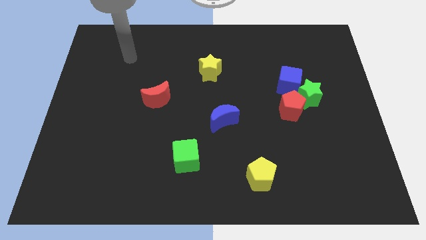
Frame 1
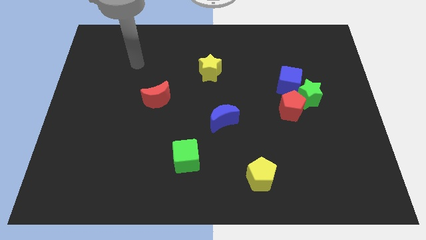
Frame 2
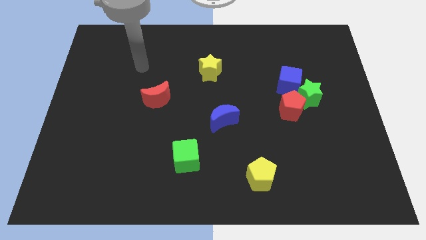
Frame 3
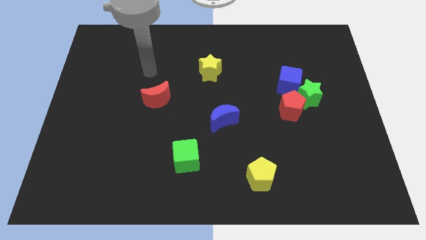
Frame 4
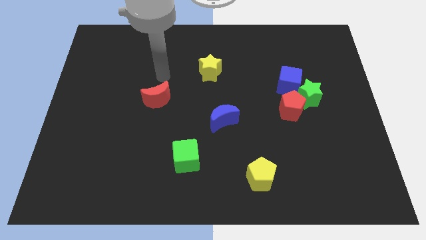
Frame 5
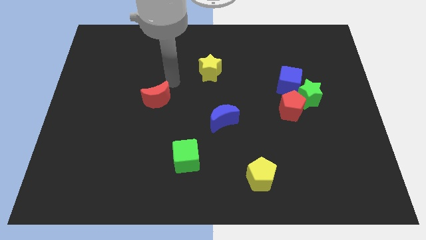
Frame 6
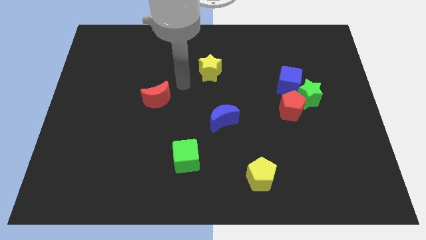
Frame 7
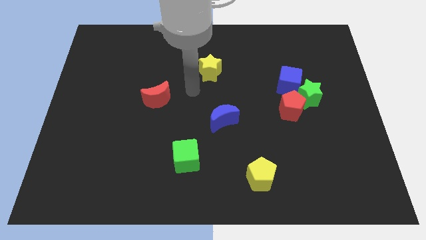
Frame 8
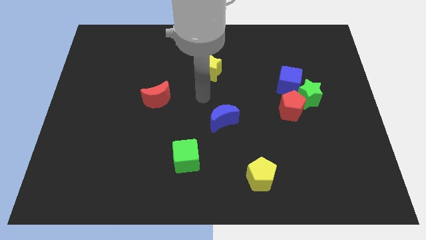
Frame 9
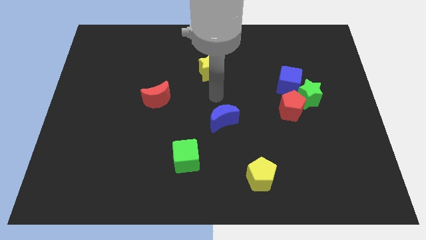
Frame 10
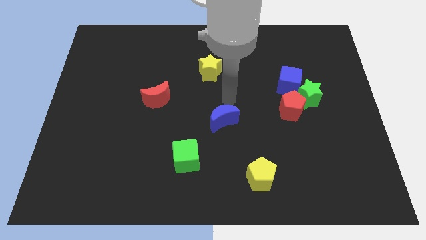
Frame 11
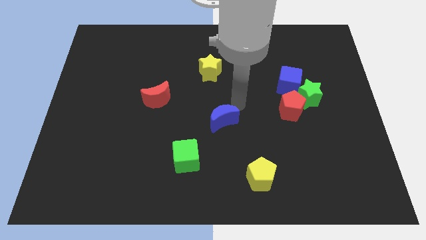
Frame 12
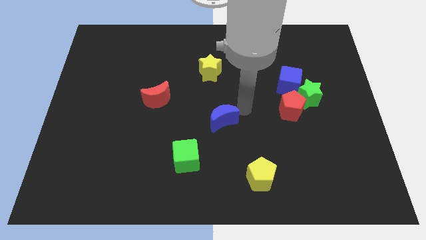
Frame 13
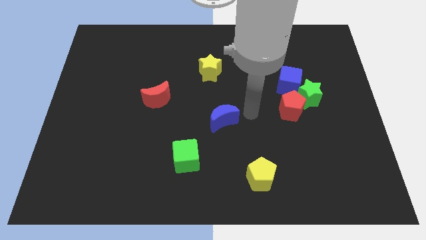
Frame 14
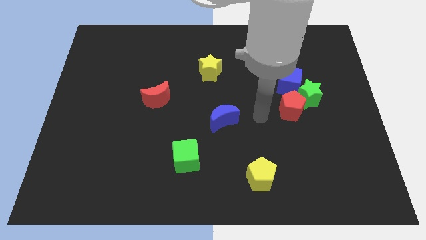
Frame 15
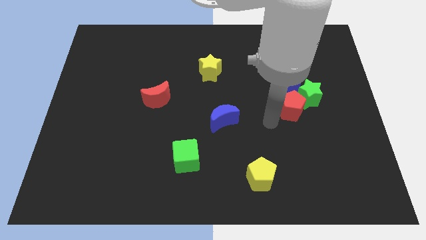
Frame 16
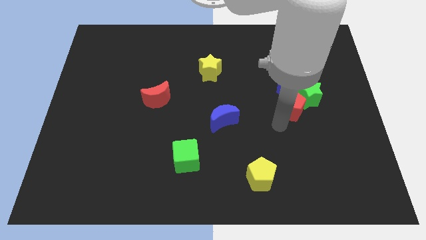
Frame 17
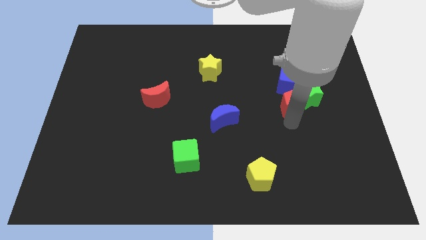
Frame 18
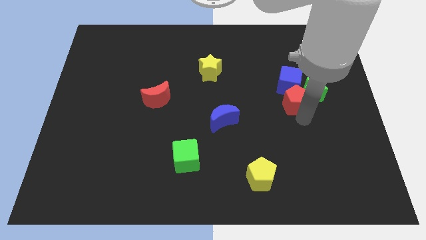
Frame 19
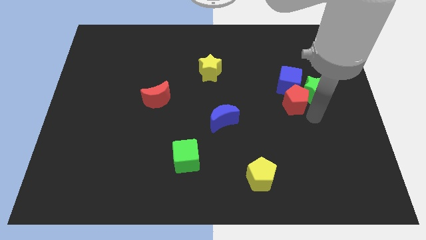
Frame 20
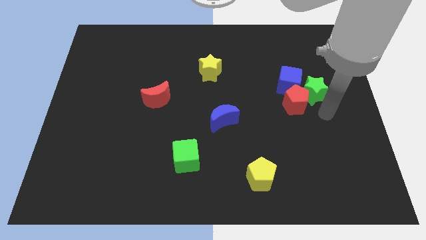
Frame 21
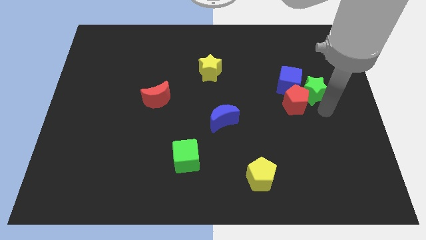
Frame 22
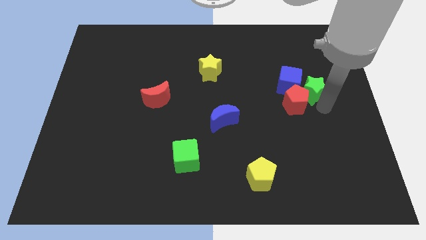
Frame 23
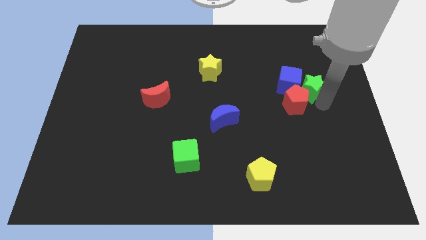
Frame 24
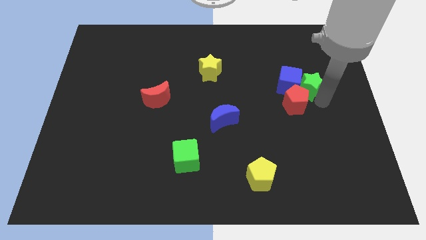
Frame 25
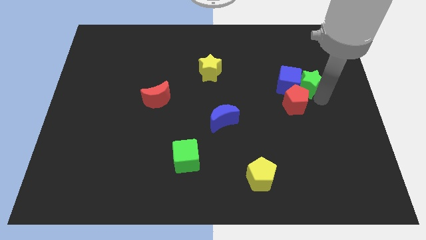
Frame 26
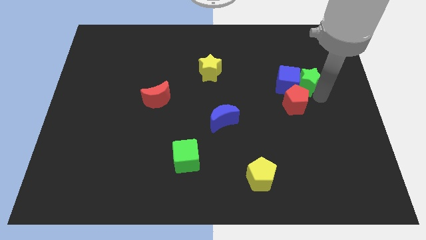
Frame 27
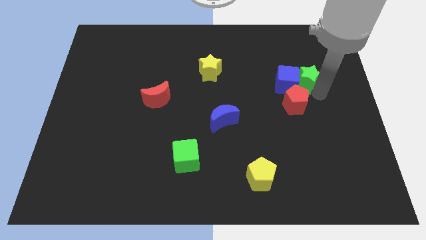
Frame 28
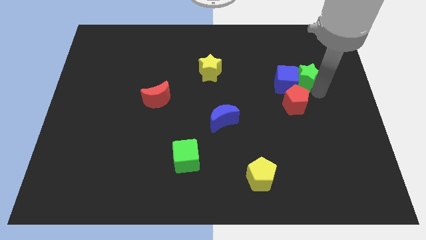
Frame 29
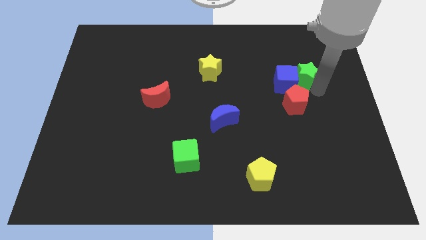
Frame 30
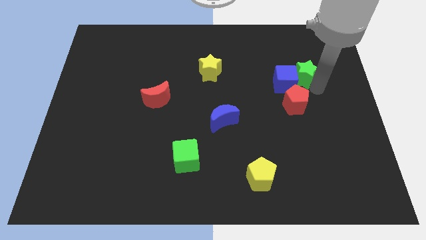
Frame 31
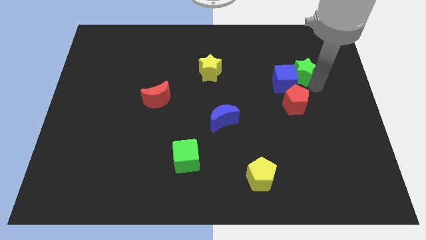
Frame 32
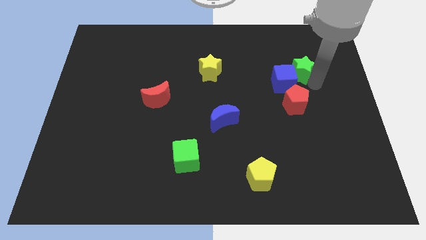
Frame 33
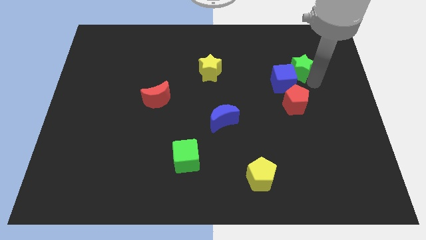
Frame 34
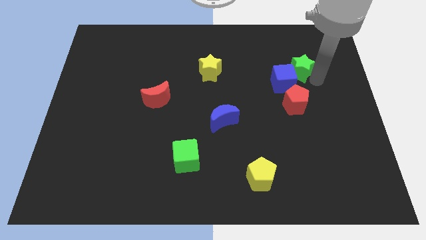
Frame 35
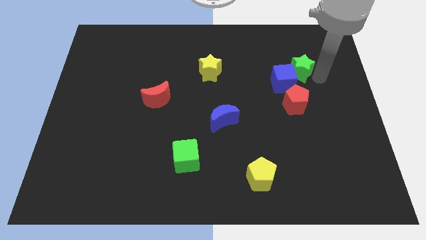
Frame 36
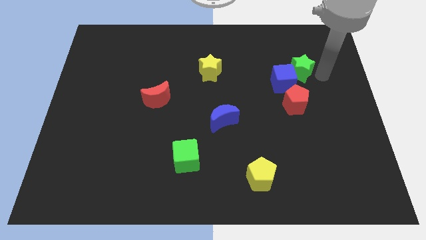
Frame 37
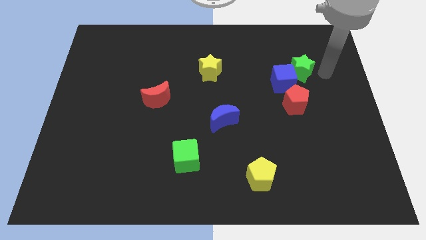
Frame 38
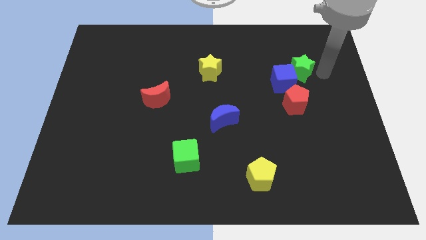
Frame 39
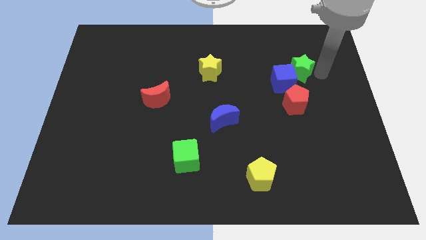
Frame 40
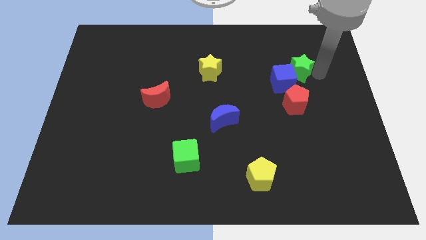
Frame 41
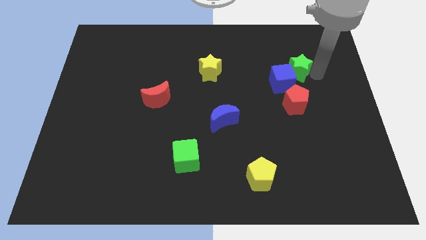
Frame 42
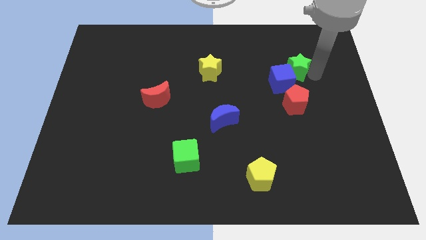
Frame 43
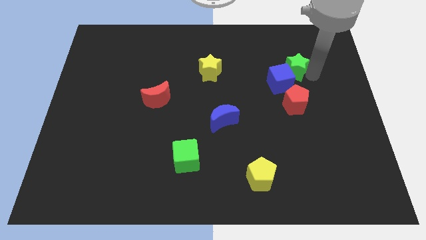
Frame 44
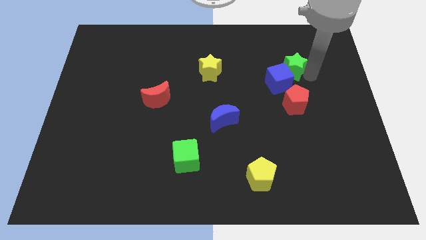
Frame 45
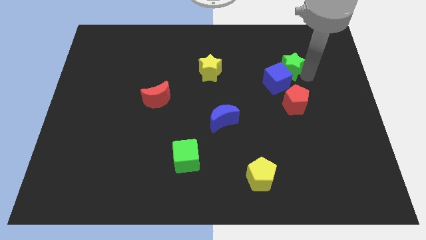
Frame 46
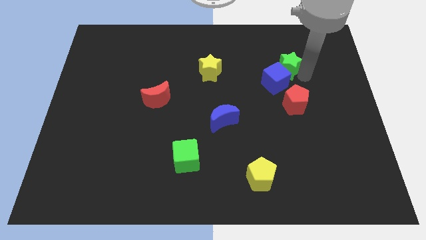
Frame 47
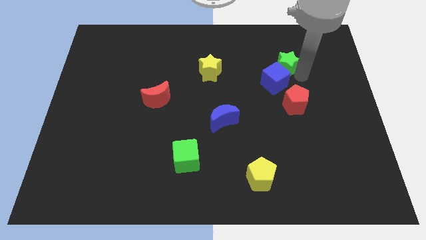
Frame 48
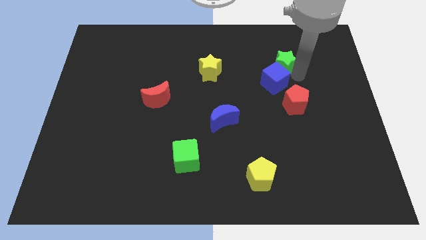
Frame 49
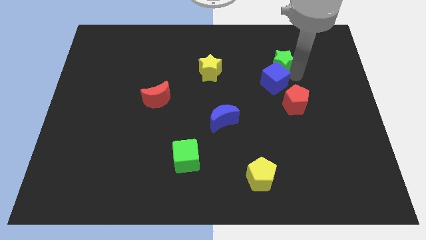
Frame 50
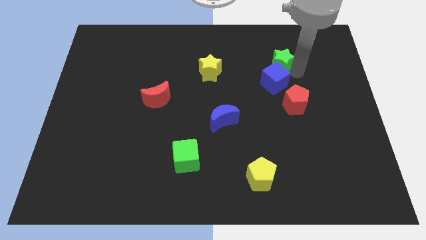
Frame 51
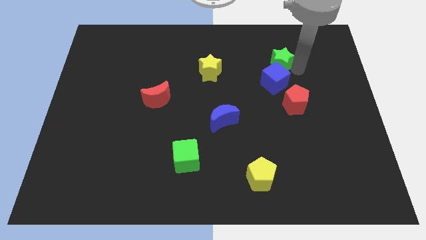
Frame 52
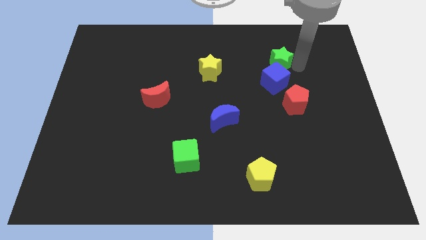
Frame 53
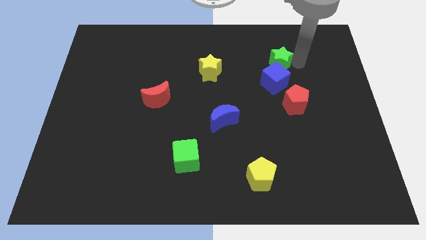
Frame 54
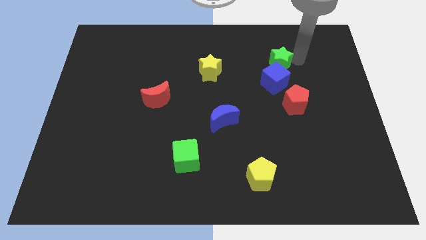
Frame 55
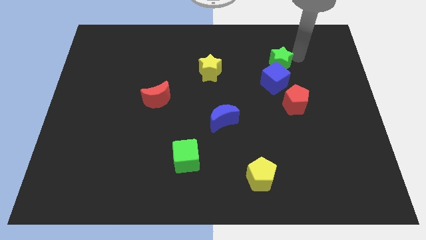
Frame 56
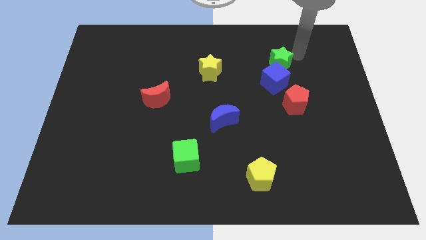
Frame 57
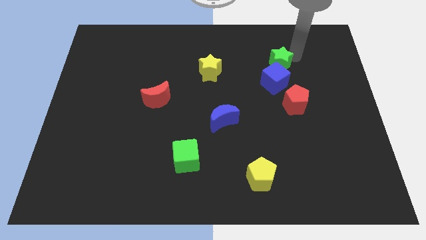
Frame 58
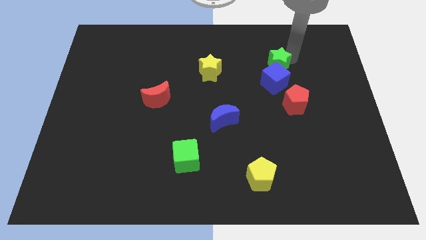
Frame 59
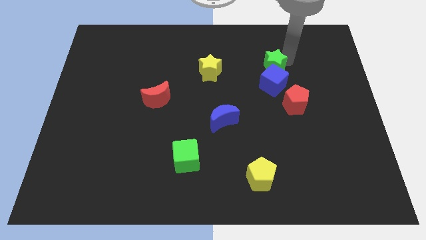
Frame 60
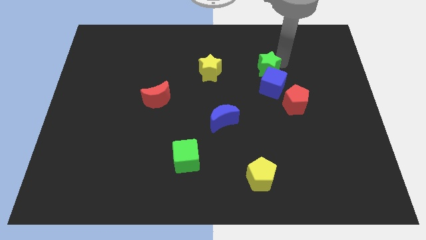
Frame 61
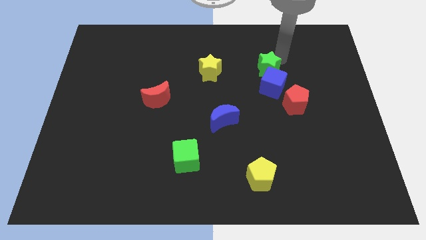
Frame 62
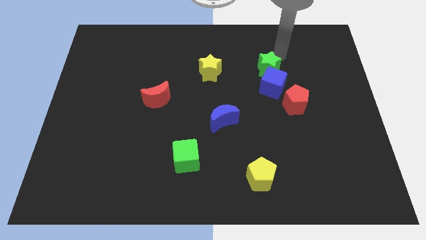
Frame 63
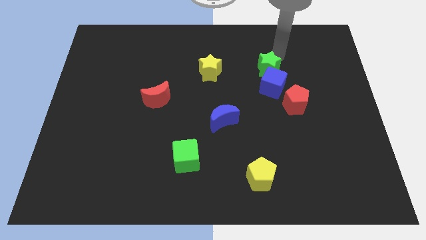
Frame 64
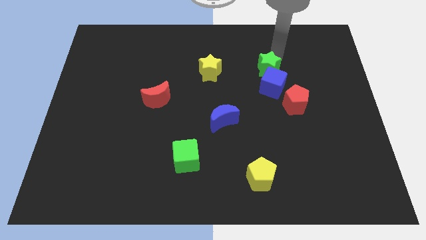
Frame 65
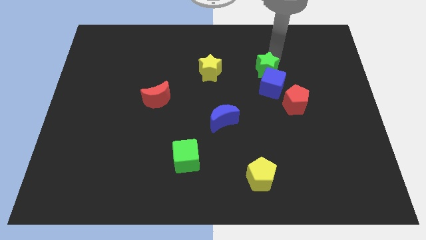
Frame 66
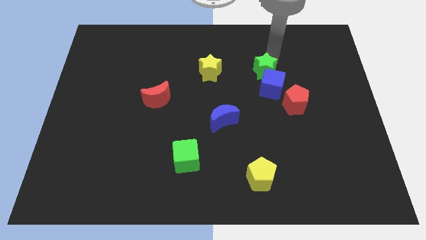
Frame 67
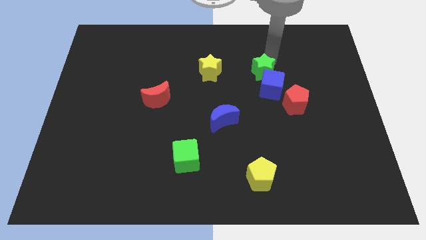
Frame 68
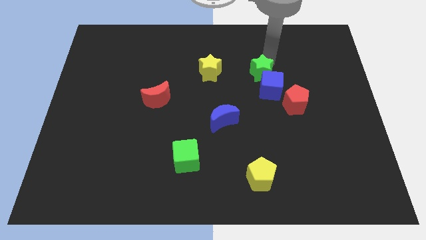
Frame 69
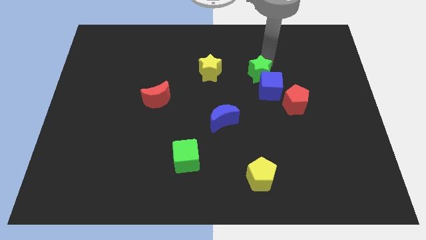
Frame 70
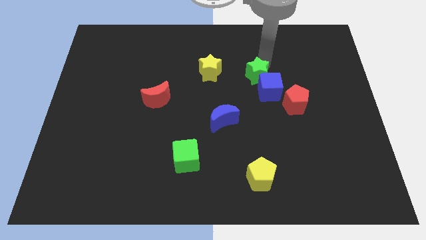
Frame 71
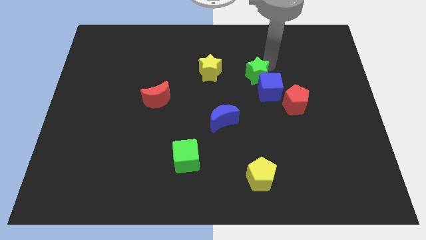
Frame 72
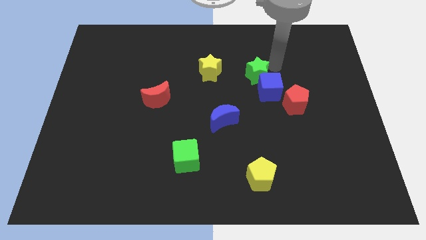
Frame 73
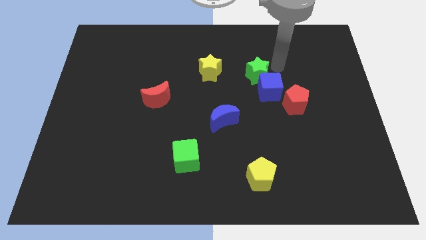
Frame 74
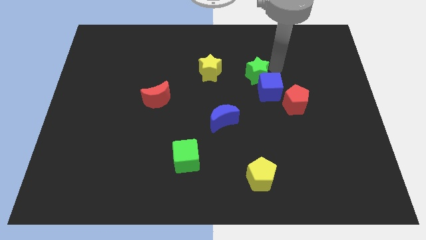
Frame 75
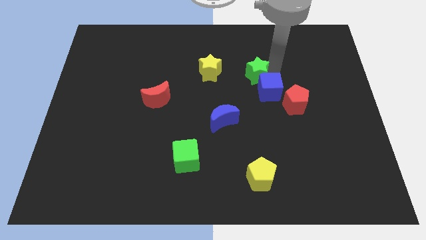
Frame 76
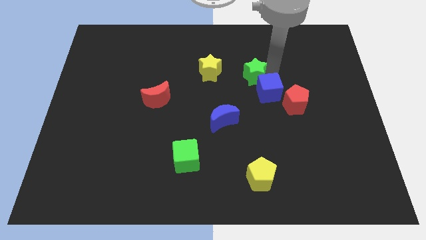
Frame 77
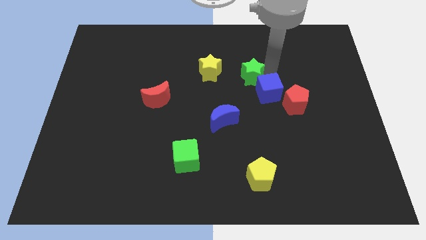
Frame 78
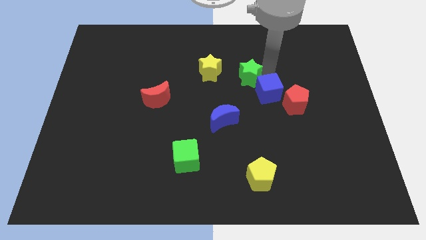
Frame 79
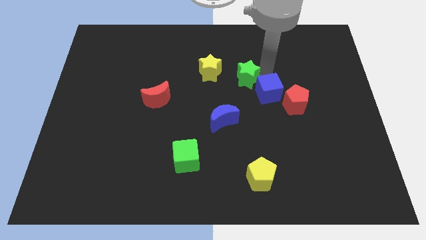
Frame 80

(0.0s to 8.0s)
move the green star to the bottom right of the yellow star
